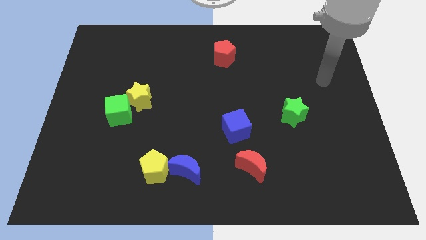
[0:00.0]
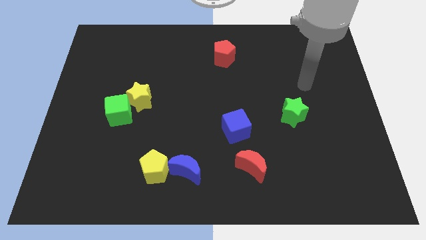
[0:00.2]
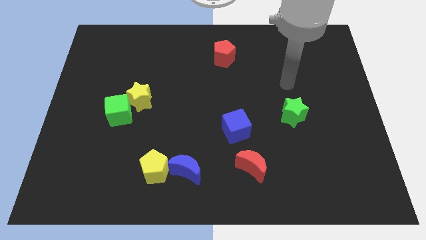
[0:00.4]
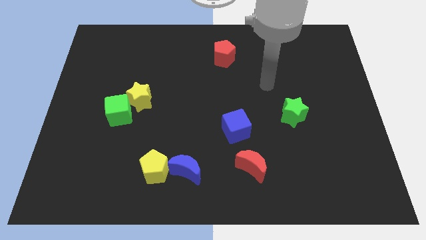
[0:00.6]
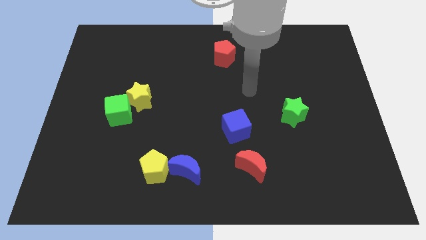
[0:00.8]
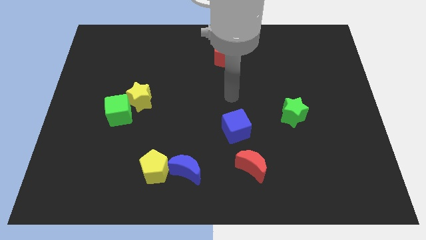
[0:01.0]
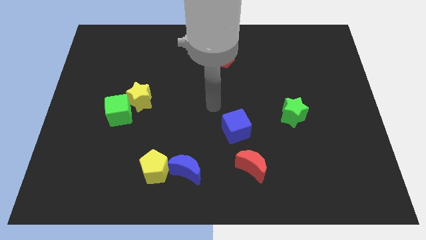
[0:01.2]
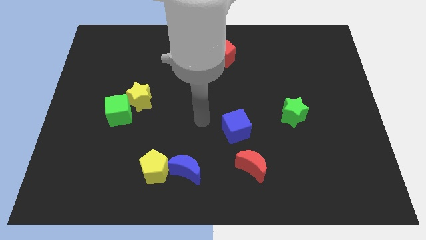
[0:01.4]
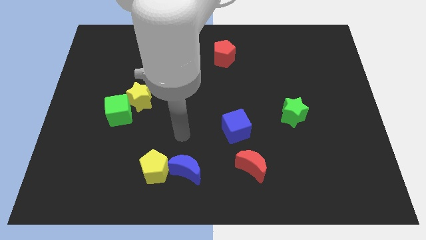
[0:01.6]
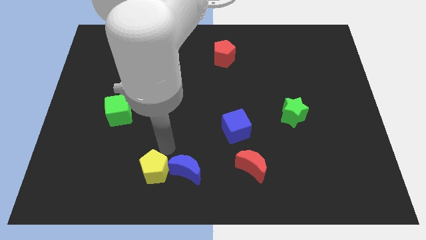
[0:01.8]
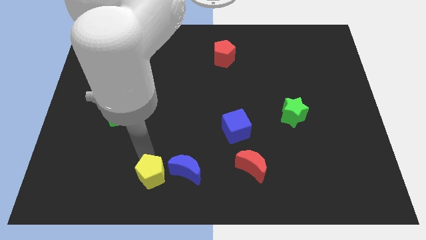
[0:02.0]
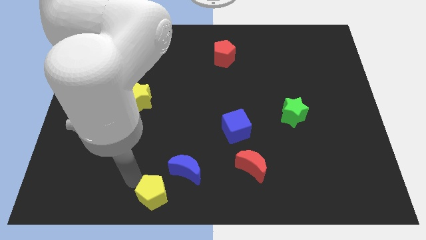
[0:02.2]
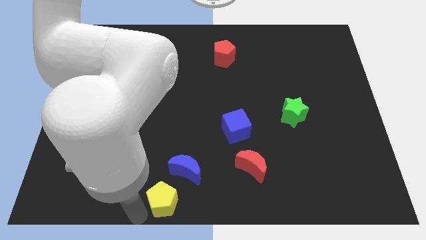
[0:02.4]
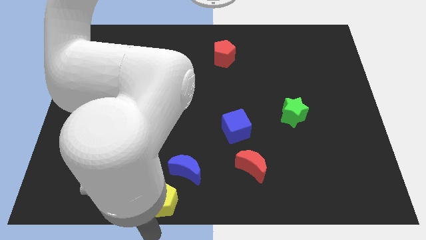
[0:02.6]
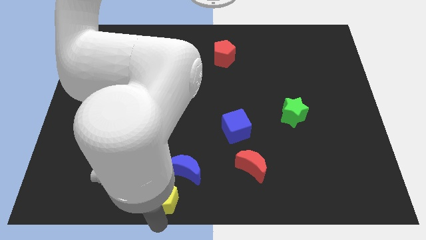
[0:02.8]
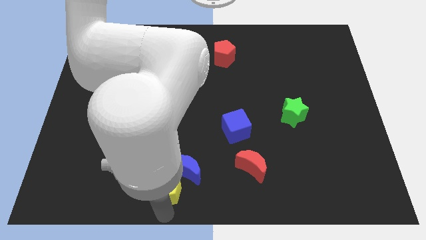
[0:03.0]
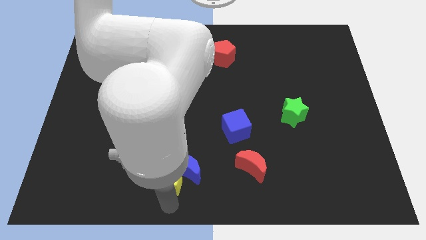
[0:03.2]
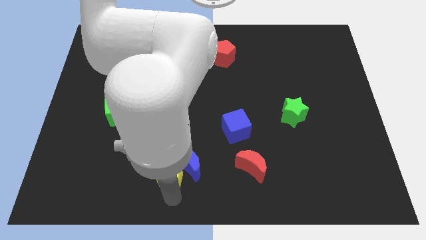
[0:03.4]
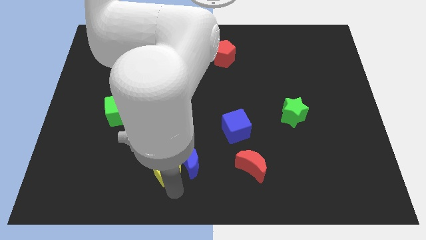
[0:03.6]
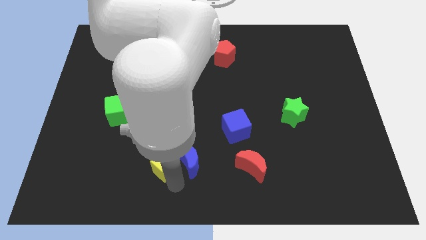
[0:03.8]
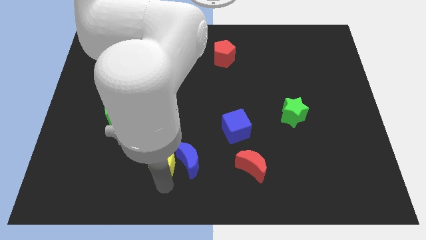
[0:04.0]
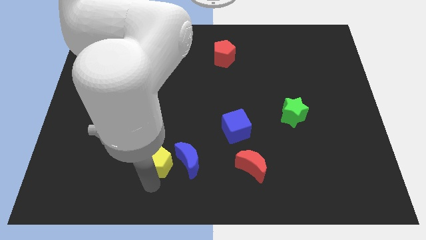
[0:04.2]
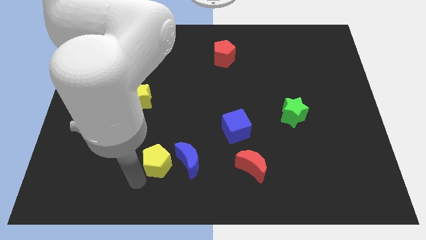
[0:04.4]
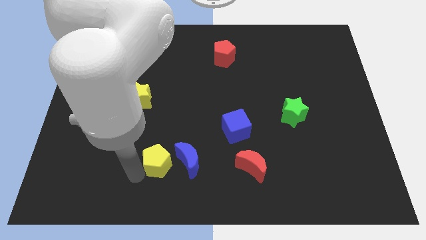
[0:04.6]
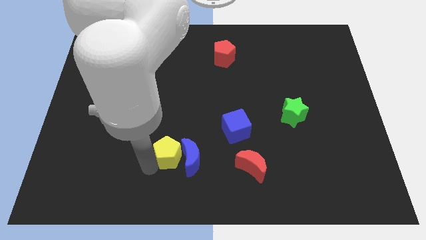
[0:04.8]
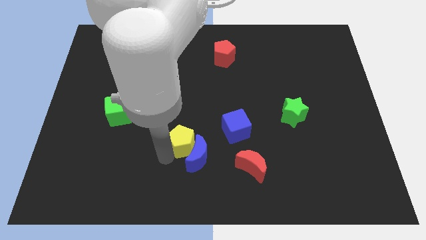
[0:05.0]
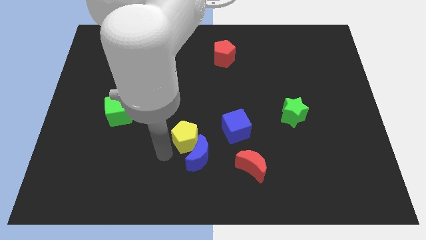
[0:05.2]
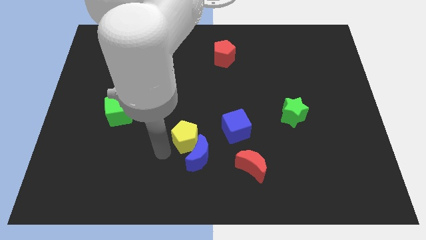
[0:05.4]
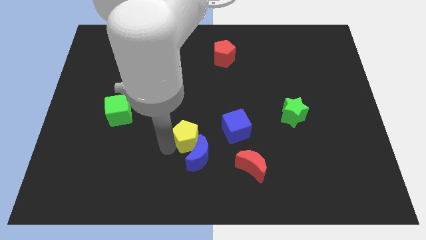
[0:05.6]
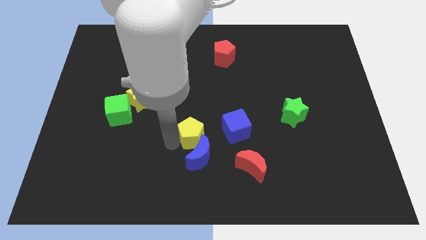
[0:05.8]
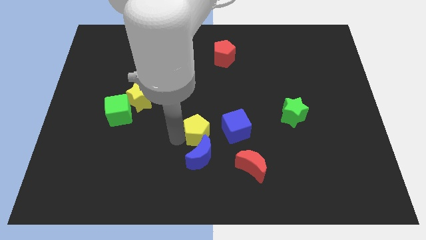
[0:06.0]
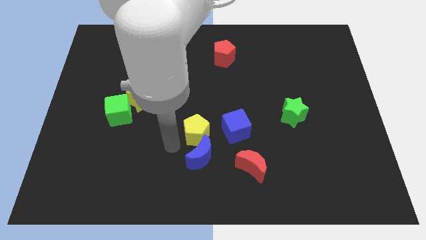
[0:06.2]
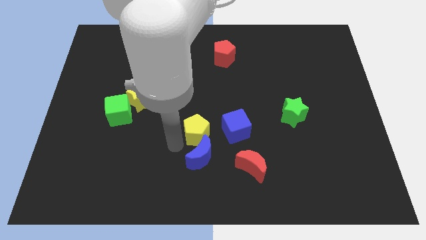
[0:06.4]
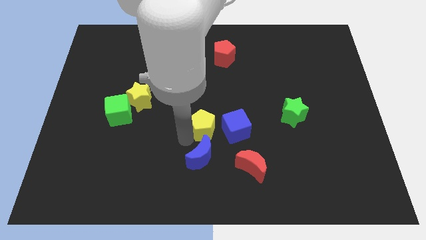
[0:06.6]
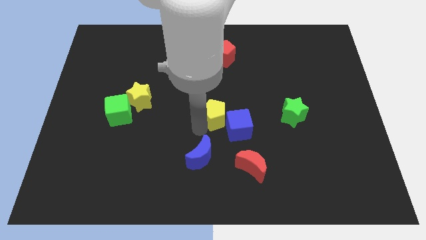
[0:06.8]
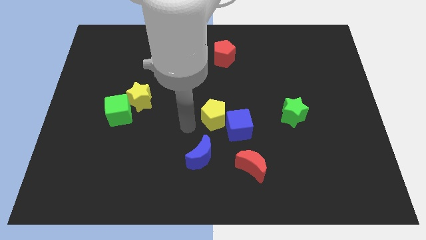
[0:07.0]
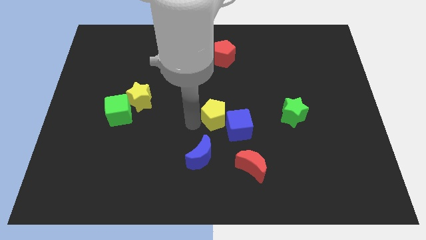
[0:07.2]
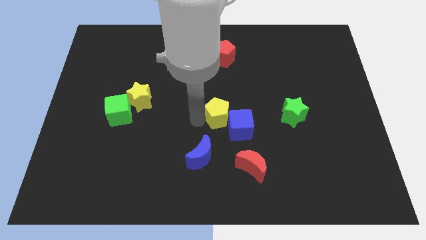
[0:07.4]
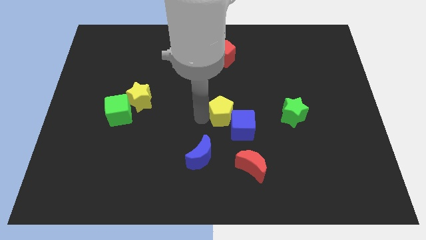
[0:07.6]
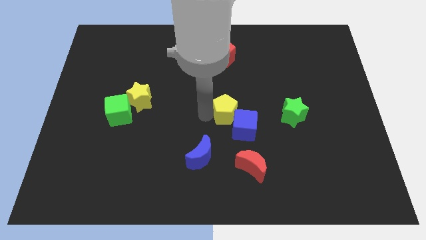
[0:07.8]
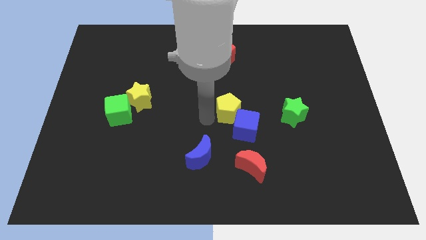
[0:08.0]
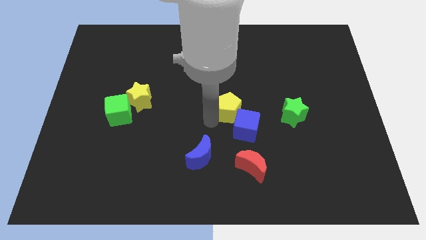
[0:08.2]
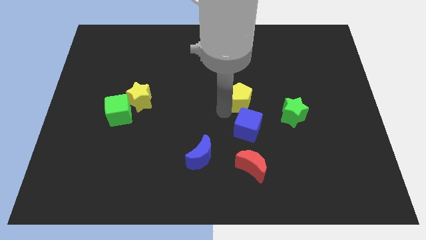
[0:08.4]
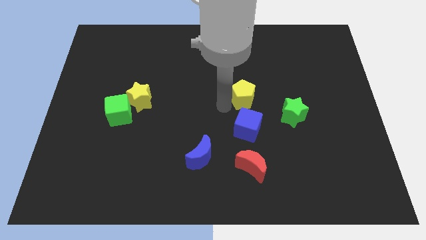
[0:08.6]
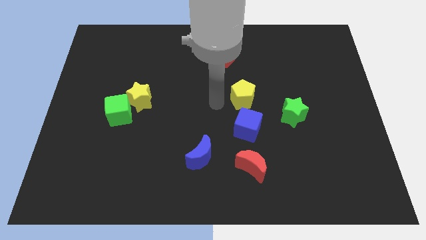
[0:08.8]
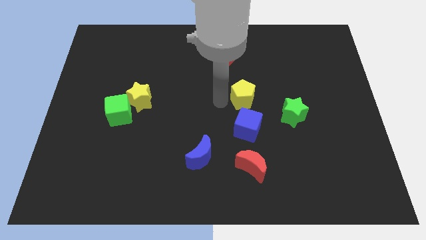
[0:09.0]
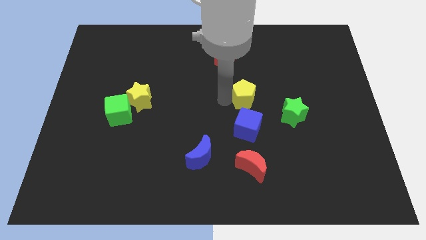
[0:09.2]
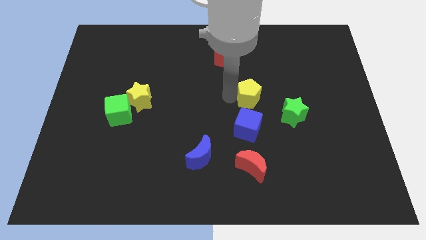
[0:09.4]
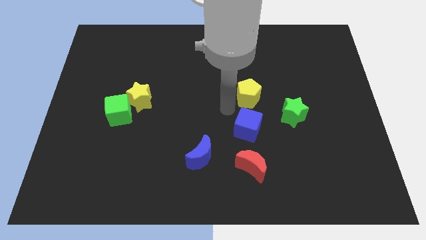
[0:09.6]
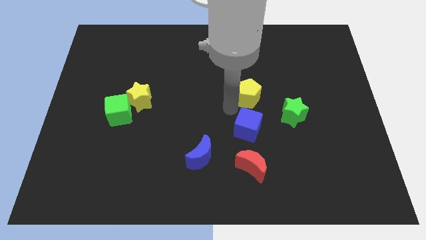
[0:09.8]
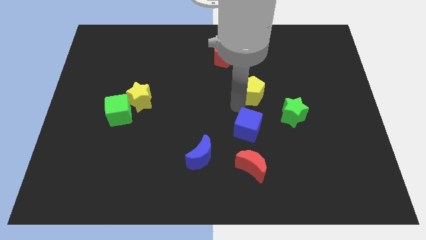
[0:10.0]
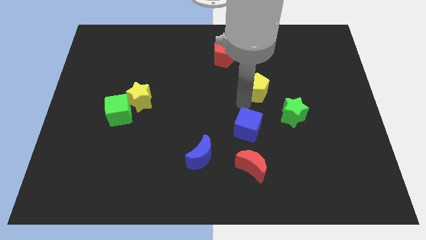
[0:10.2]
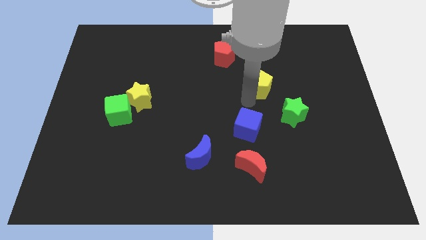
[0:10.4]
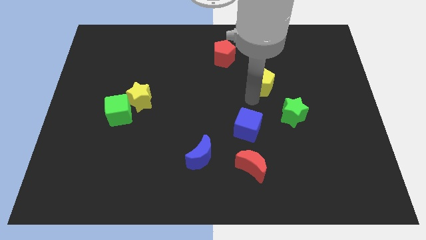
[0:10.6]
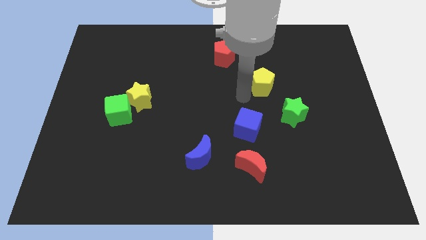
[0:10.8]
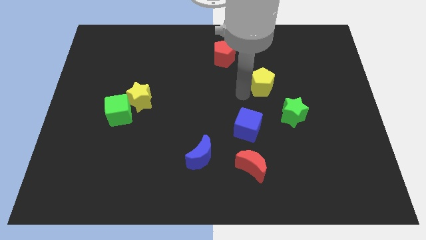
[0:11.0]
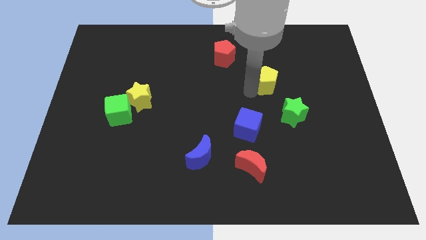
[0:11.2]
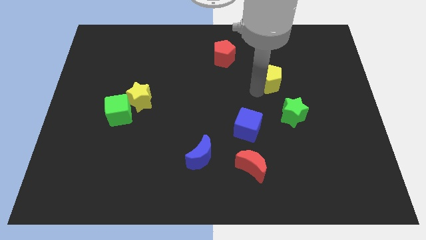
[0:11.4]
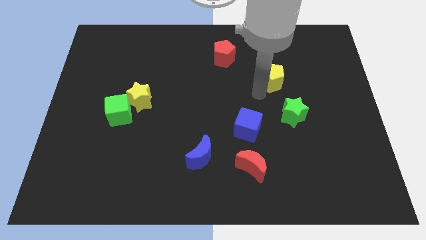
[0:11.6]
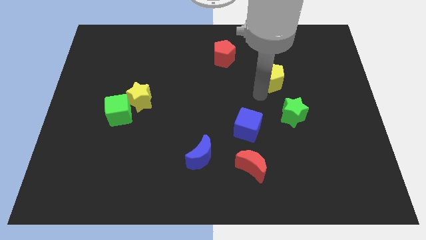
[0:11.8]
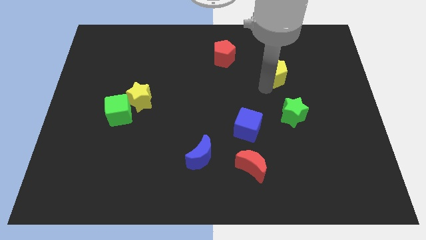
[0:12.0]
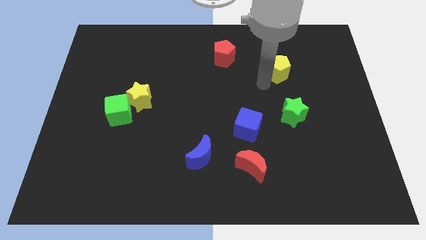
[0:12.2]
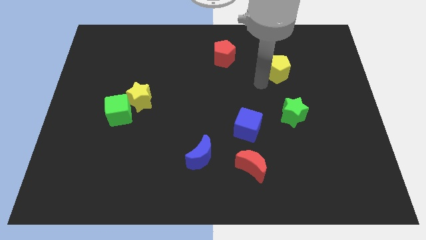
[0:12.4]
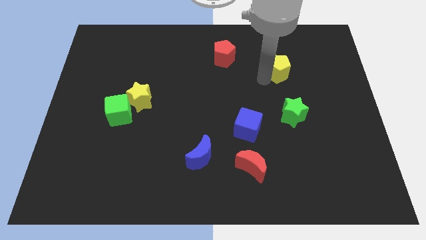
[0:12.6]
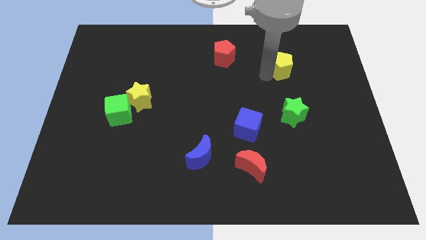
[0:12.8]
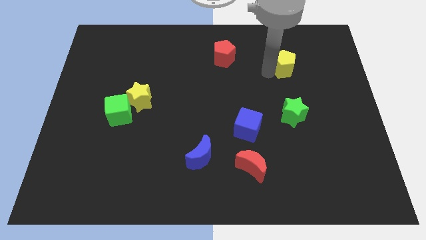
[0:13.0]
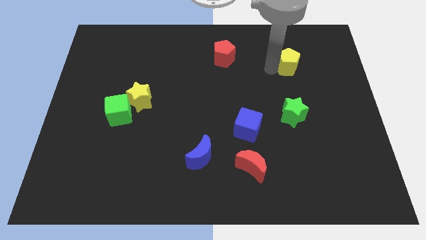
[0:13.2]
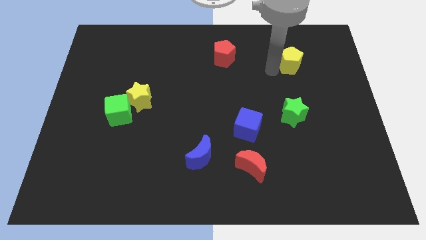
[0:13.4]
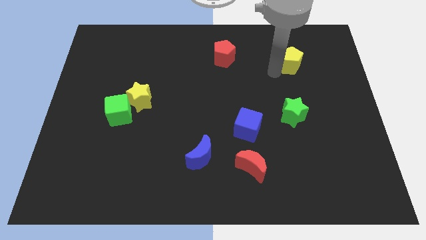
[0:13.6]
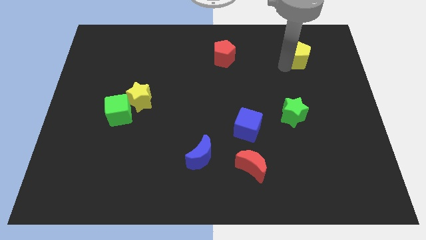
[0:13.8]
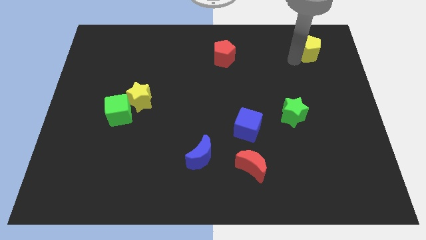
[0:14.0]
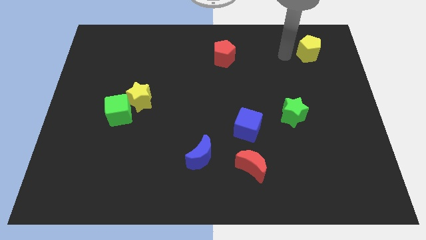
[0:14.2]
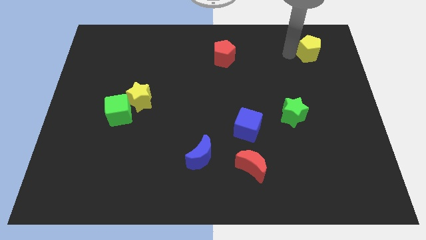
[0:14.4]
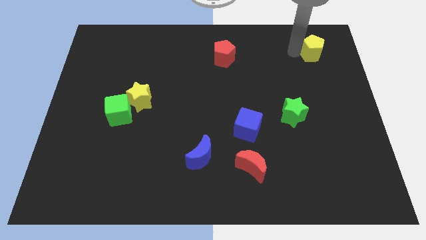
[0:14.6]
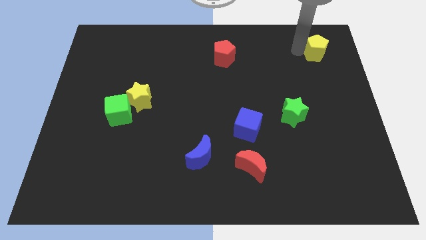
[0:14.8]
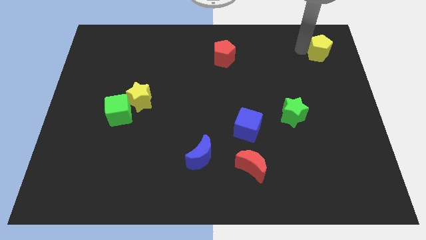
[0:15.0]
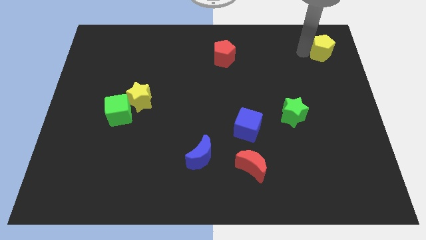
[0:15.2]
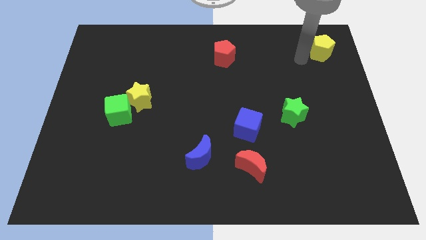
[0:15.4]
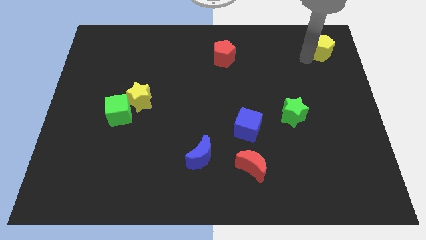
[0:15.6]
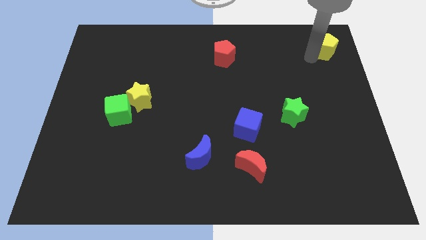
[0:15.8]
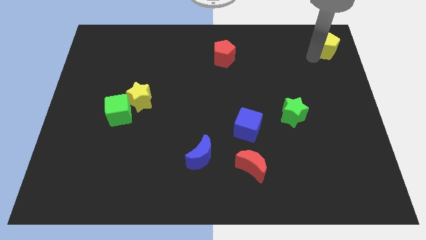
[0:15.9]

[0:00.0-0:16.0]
push the yellow pentagon to the top right corner
